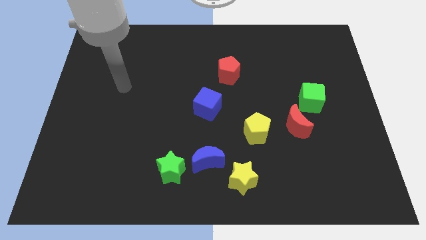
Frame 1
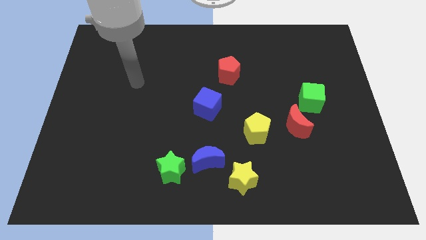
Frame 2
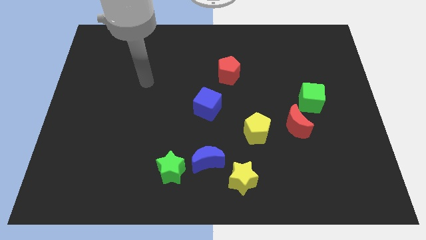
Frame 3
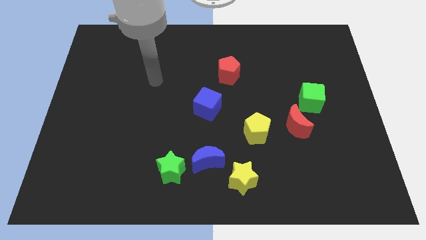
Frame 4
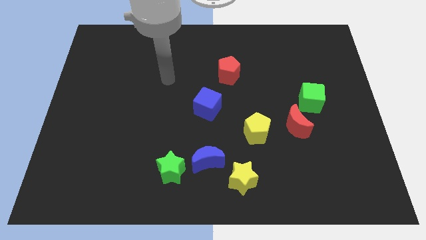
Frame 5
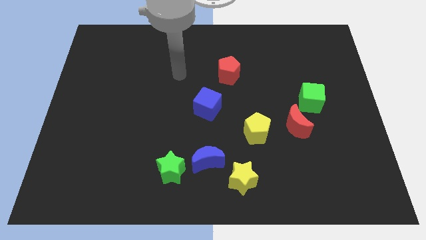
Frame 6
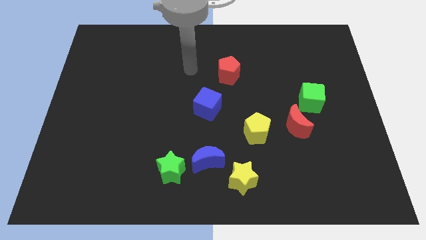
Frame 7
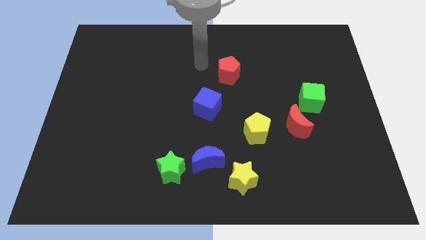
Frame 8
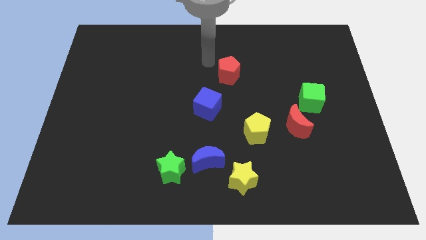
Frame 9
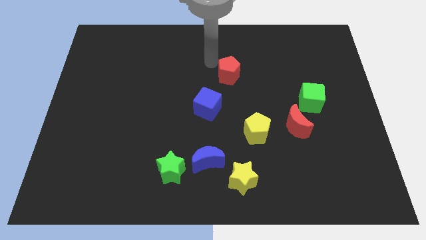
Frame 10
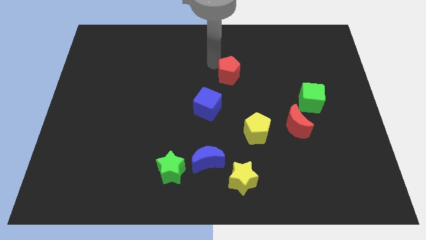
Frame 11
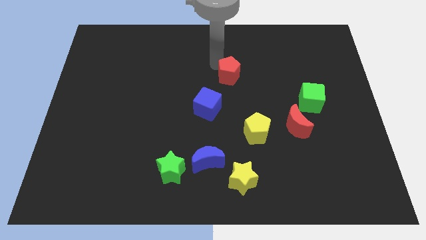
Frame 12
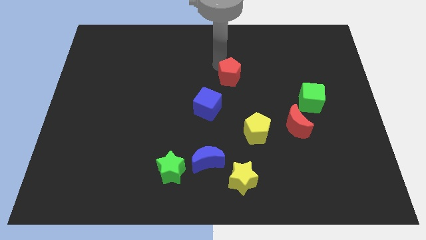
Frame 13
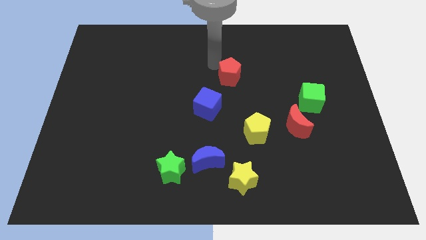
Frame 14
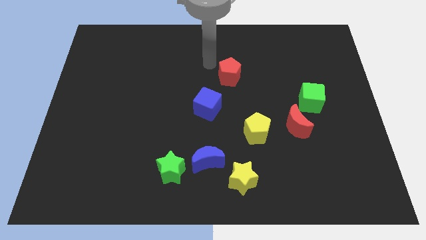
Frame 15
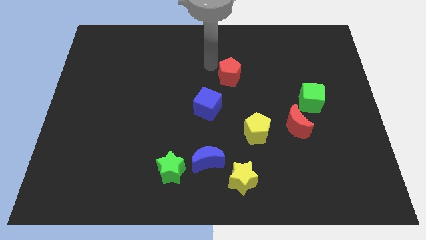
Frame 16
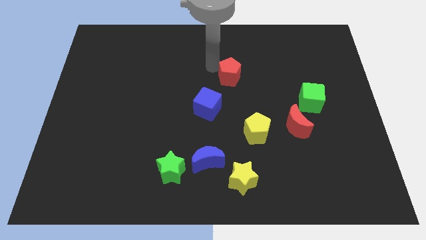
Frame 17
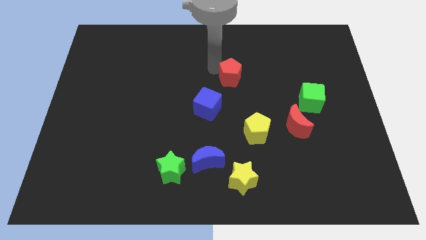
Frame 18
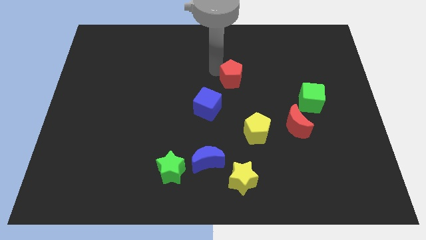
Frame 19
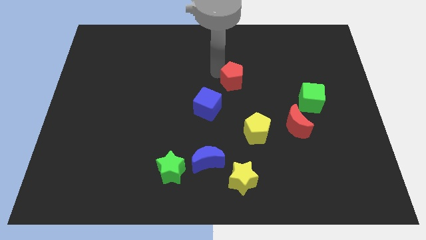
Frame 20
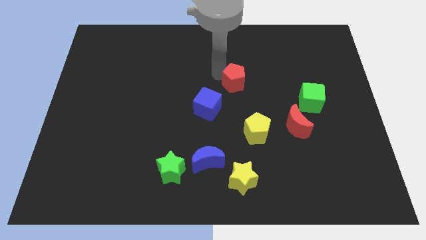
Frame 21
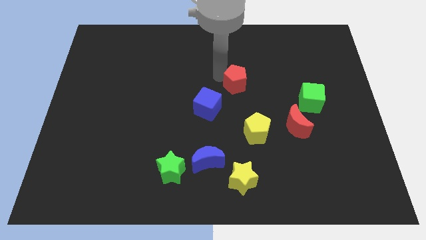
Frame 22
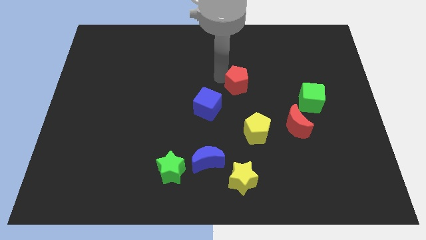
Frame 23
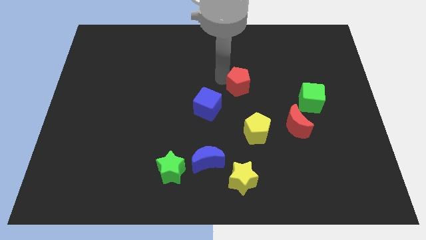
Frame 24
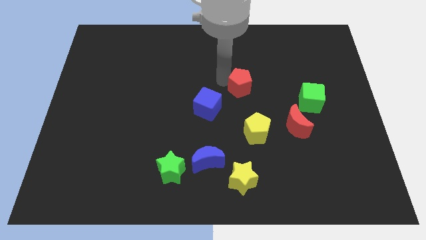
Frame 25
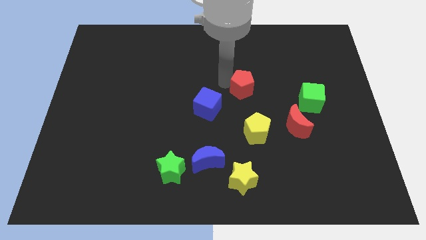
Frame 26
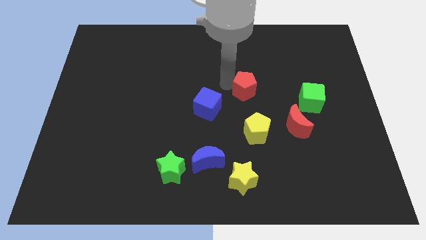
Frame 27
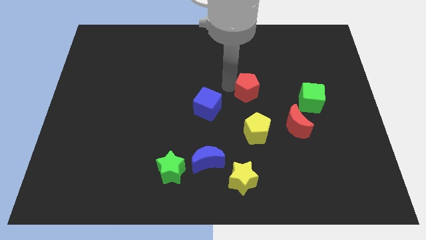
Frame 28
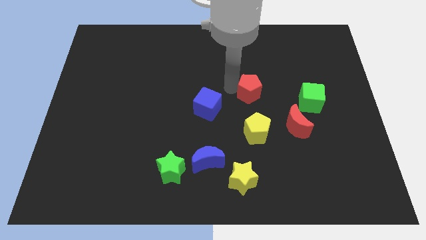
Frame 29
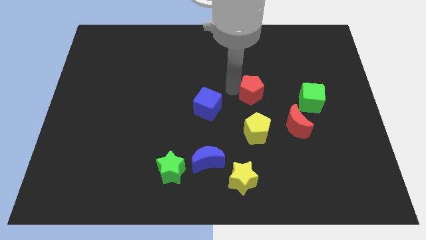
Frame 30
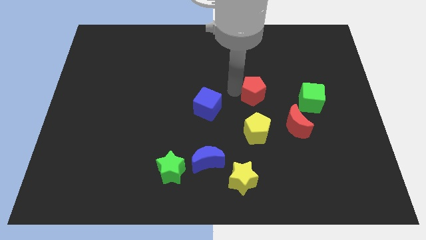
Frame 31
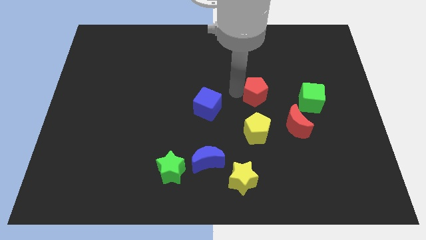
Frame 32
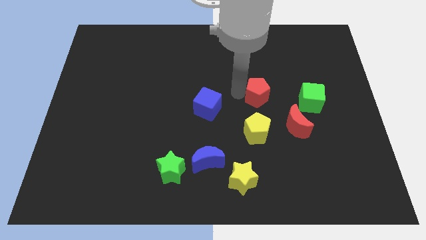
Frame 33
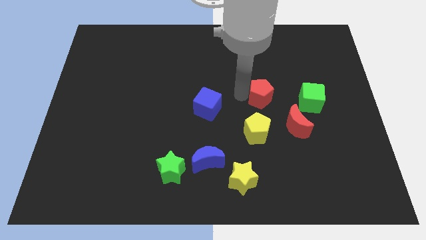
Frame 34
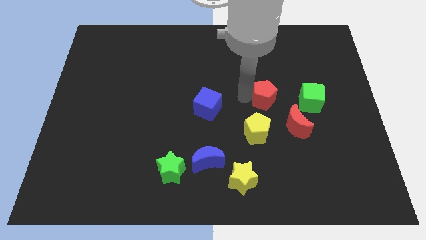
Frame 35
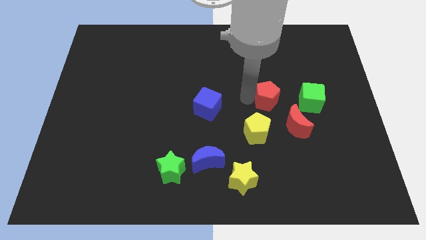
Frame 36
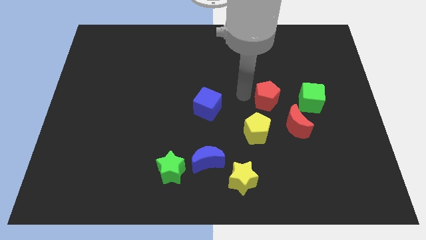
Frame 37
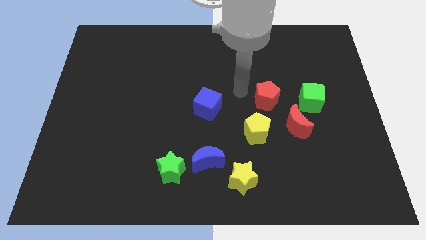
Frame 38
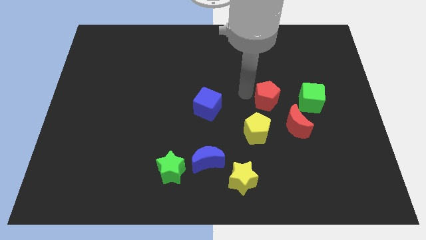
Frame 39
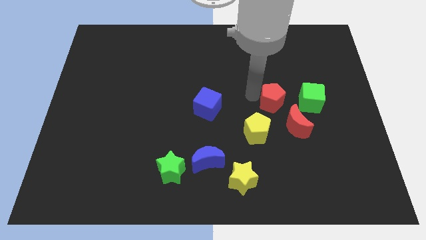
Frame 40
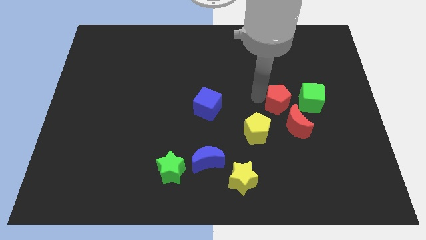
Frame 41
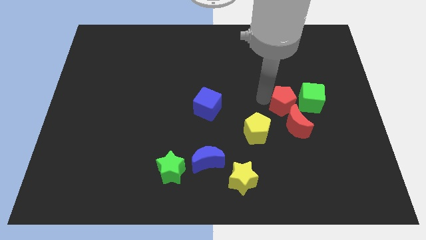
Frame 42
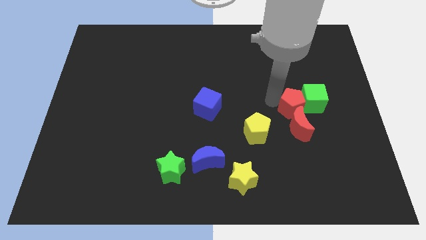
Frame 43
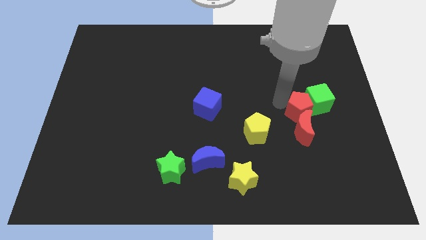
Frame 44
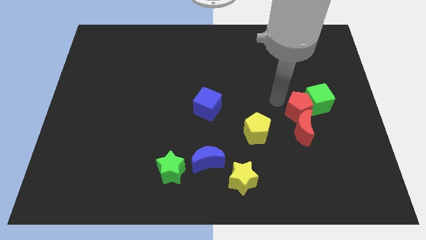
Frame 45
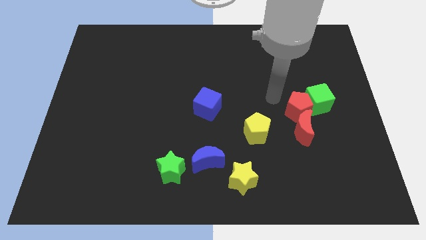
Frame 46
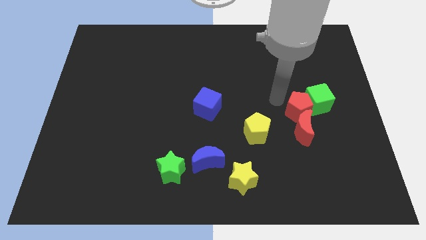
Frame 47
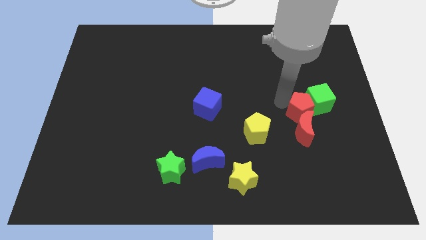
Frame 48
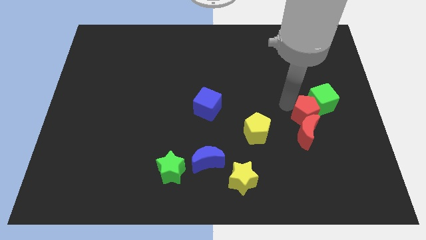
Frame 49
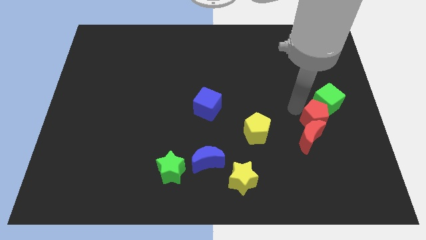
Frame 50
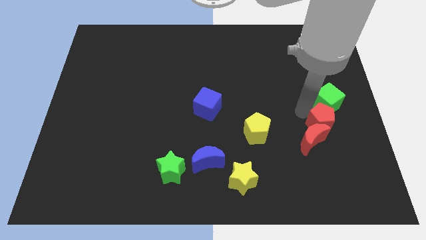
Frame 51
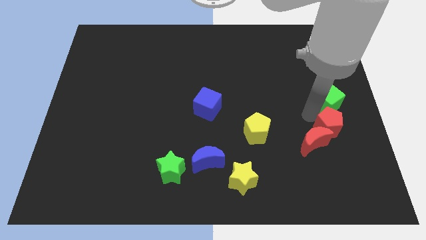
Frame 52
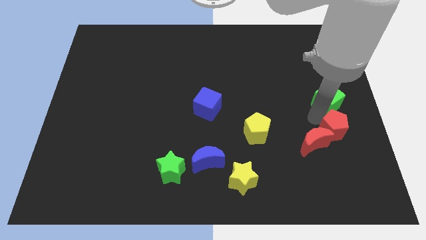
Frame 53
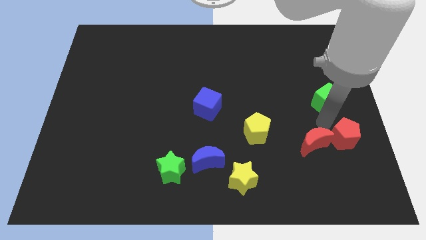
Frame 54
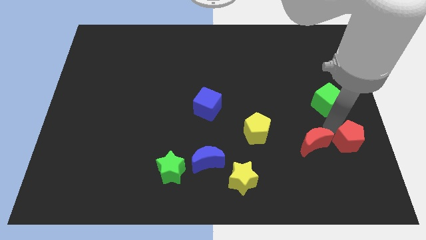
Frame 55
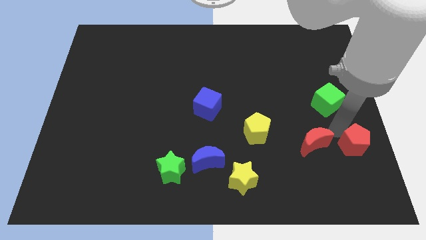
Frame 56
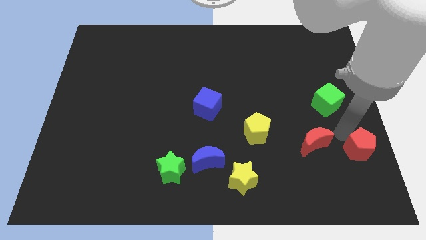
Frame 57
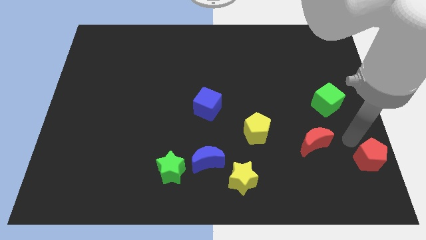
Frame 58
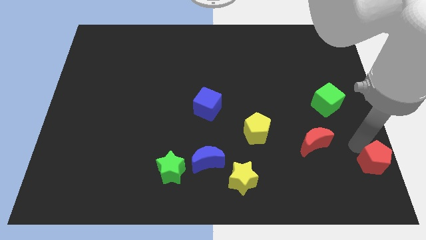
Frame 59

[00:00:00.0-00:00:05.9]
move the red pentagon to the lower right corner

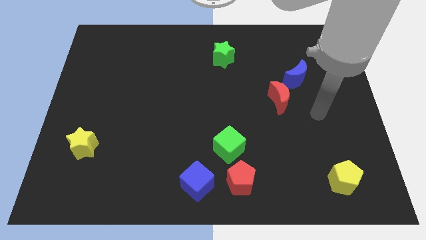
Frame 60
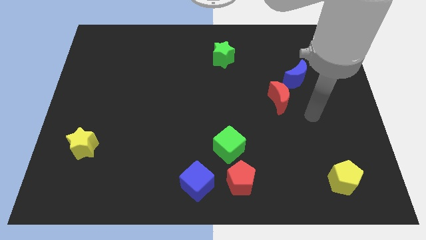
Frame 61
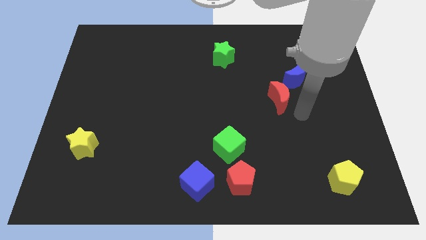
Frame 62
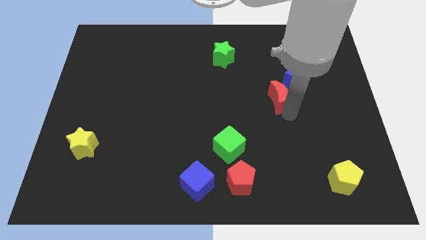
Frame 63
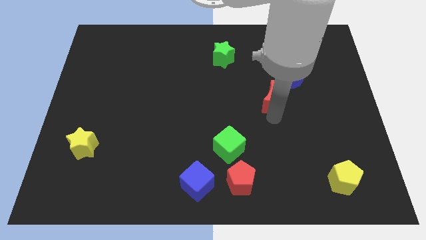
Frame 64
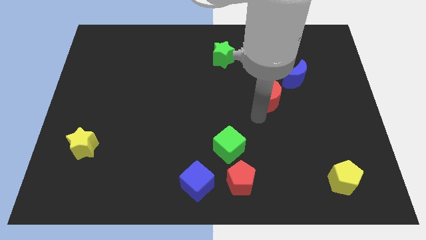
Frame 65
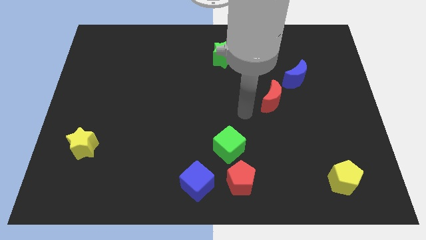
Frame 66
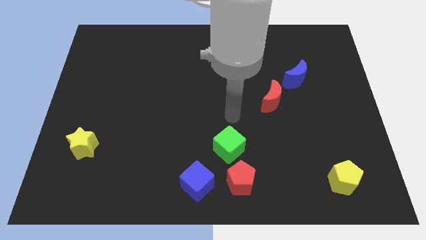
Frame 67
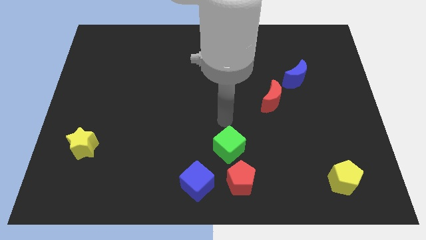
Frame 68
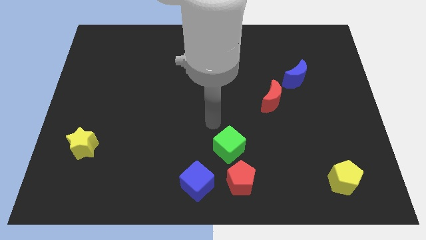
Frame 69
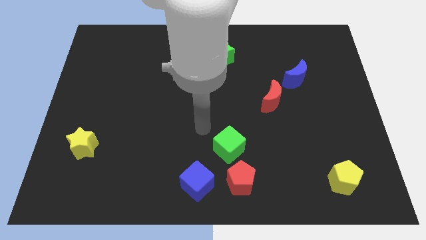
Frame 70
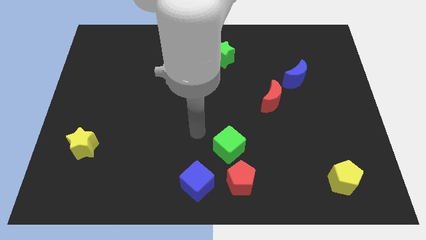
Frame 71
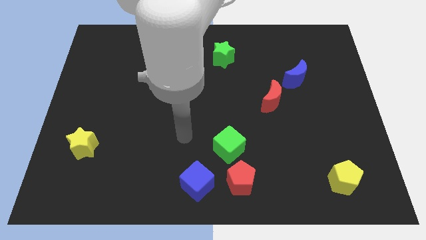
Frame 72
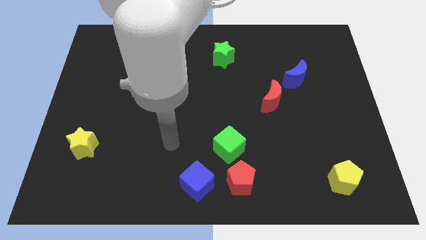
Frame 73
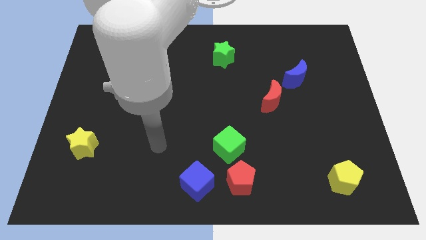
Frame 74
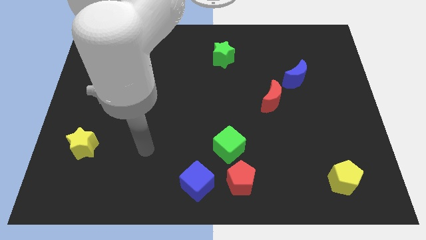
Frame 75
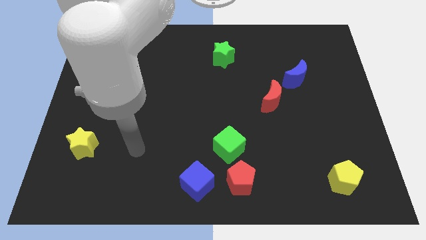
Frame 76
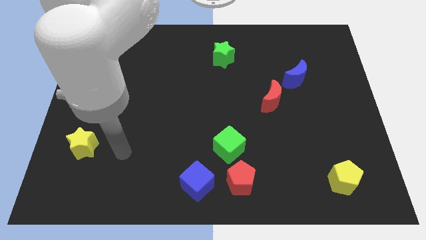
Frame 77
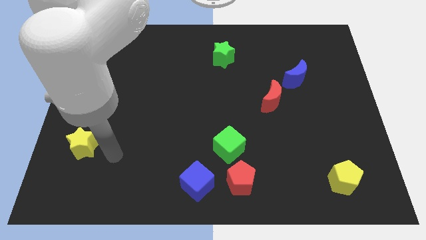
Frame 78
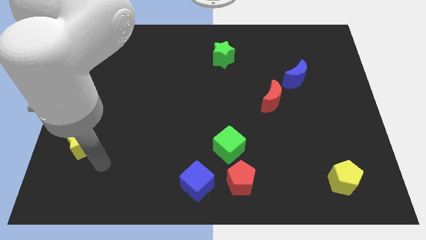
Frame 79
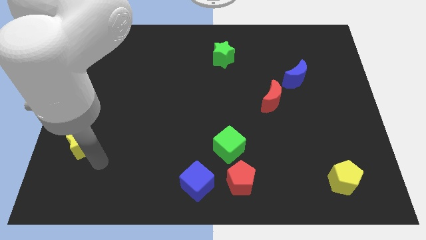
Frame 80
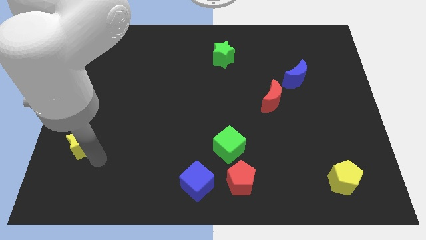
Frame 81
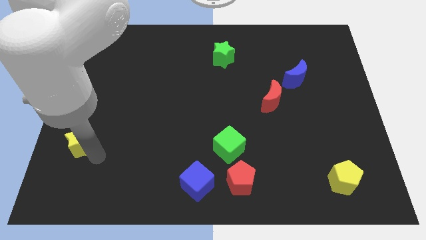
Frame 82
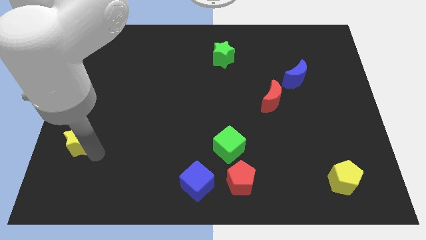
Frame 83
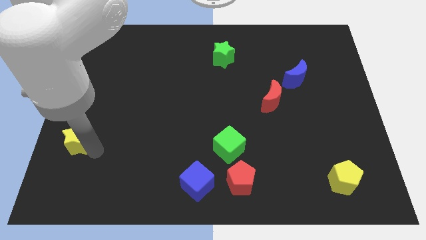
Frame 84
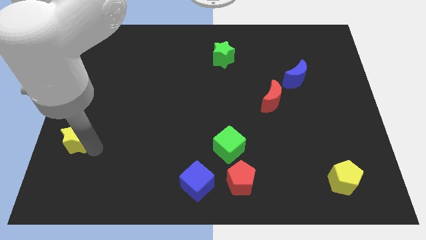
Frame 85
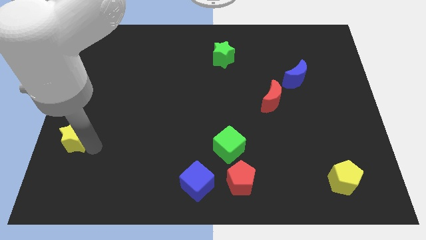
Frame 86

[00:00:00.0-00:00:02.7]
slide the yellow star to the left side of the board
